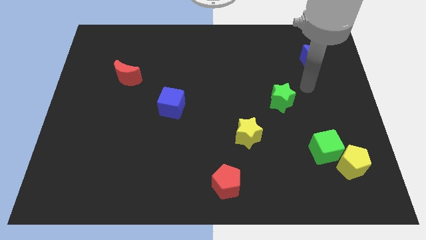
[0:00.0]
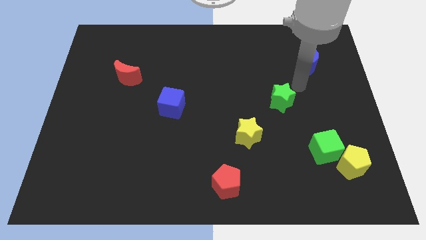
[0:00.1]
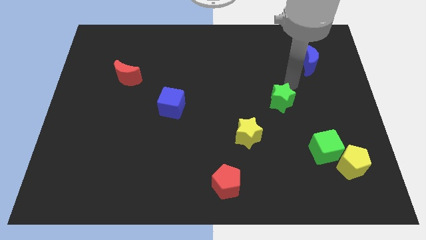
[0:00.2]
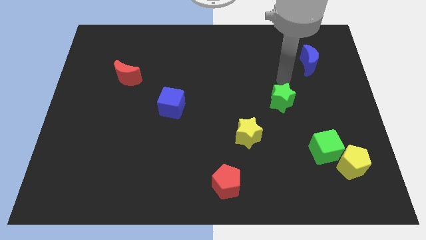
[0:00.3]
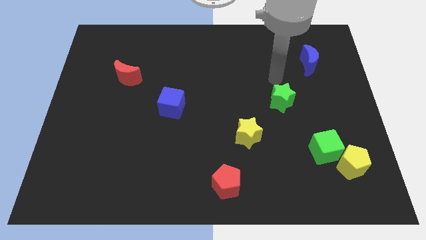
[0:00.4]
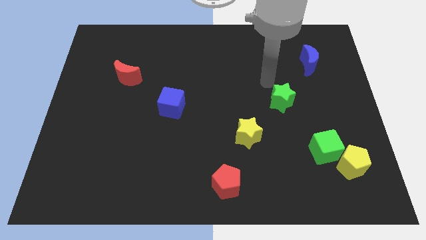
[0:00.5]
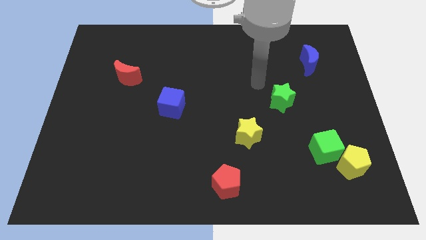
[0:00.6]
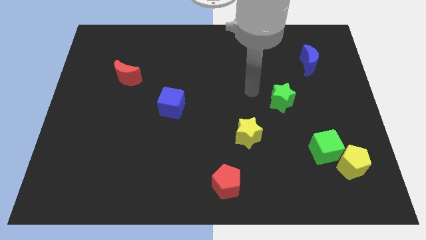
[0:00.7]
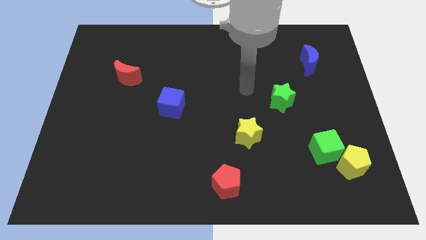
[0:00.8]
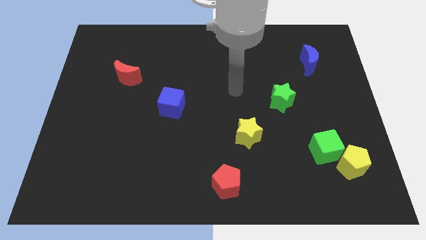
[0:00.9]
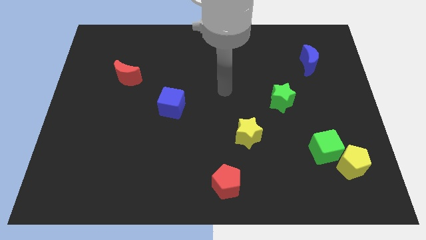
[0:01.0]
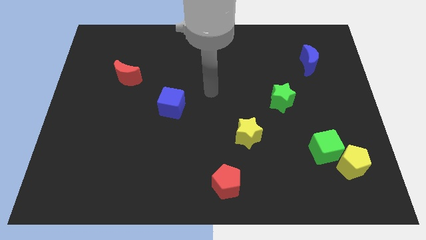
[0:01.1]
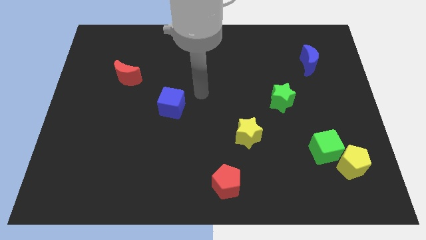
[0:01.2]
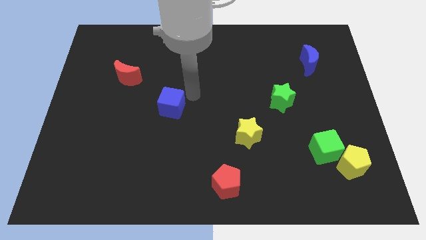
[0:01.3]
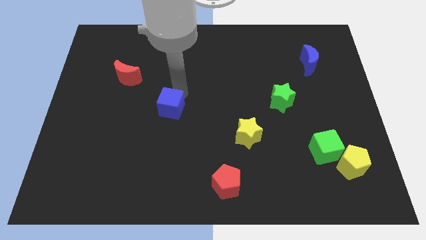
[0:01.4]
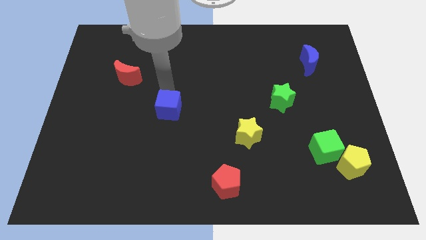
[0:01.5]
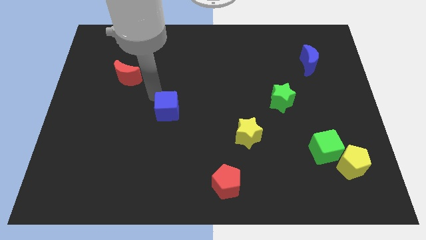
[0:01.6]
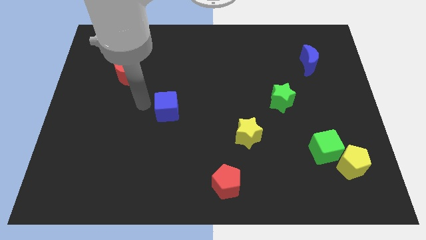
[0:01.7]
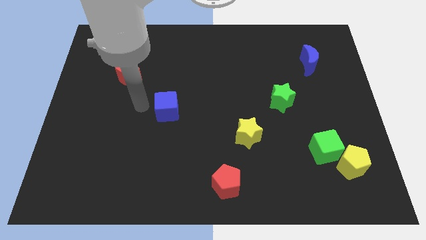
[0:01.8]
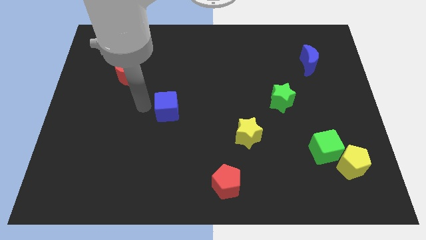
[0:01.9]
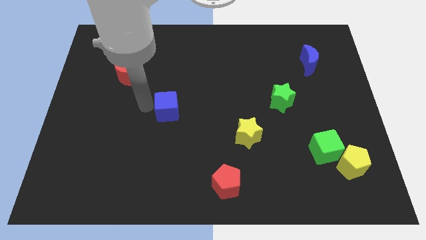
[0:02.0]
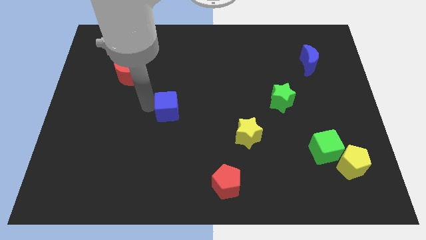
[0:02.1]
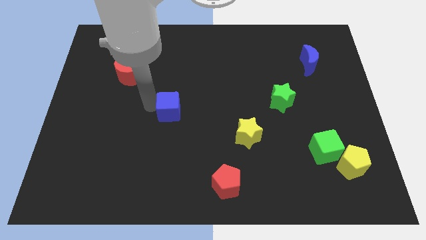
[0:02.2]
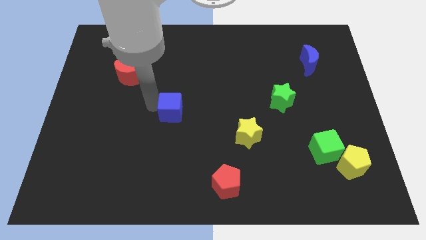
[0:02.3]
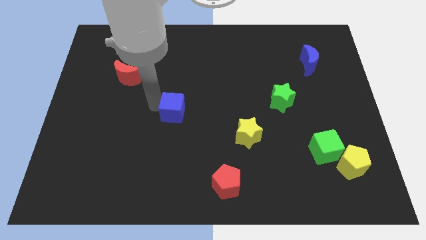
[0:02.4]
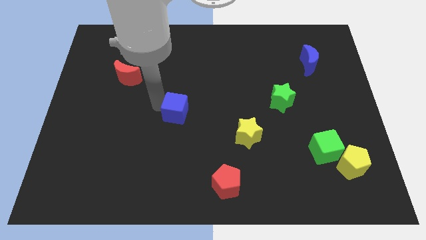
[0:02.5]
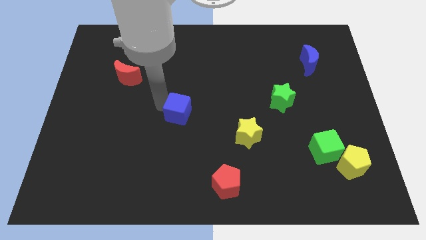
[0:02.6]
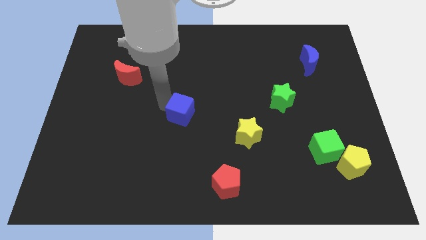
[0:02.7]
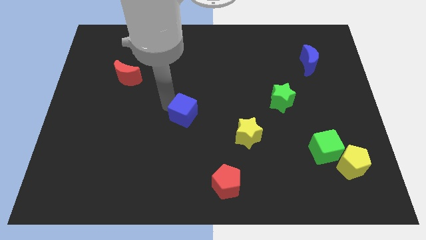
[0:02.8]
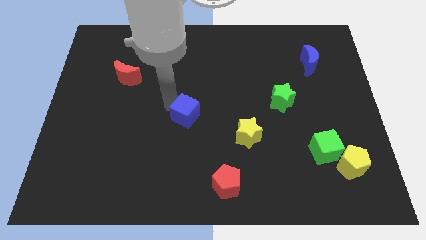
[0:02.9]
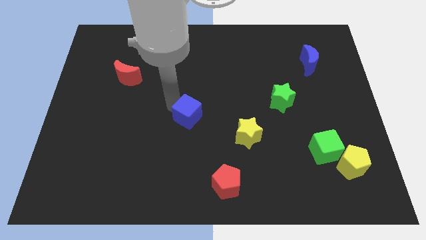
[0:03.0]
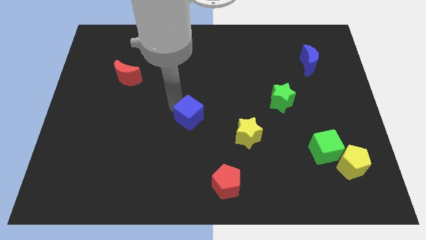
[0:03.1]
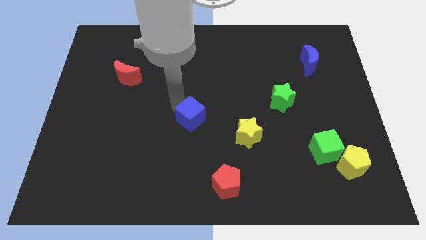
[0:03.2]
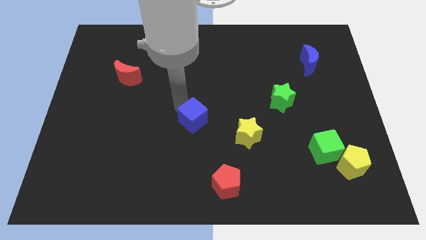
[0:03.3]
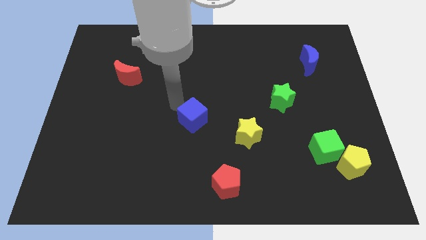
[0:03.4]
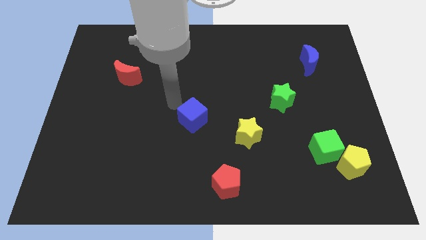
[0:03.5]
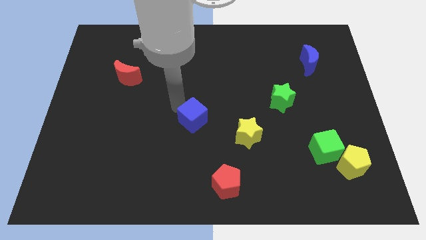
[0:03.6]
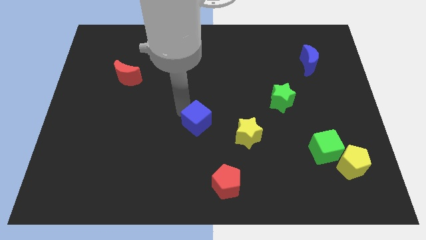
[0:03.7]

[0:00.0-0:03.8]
slightly push the blue cube diagonally down and to the right

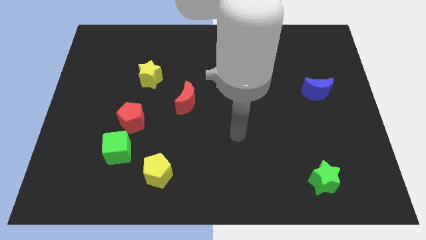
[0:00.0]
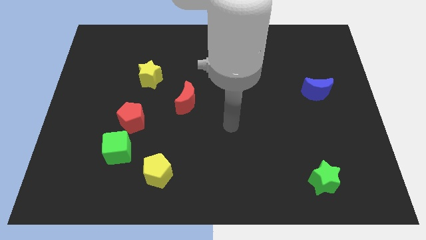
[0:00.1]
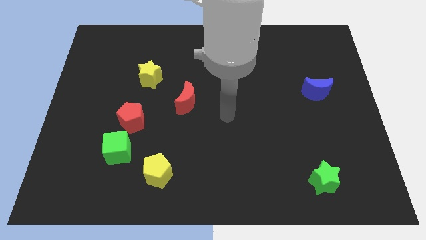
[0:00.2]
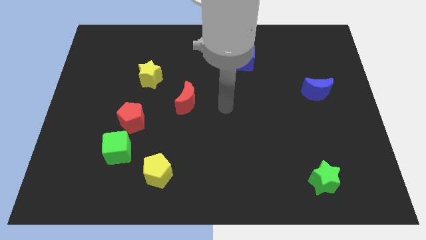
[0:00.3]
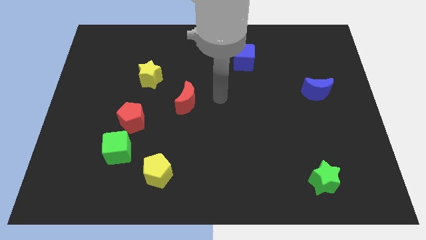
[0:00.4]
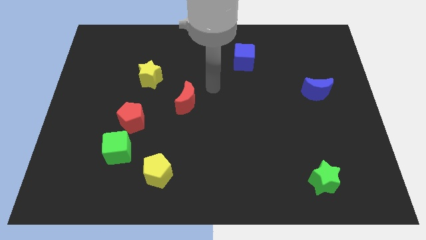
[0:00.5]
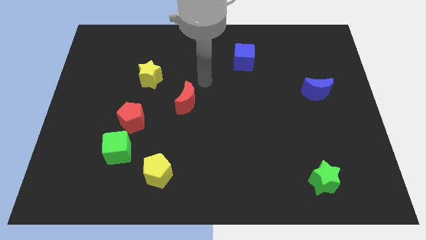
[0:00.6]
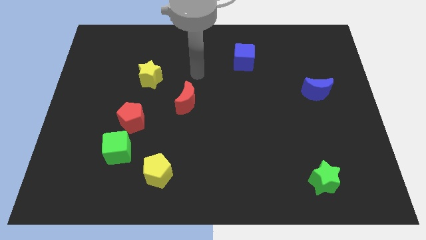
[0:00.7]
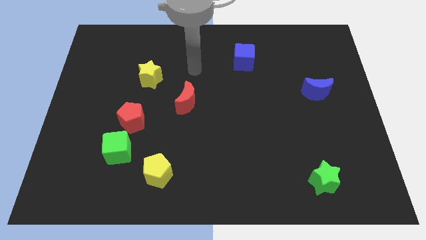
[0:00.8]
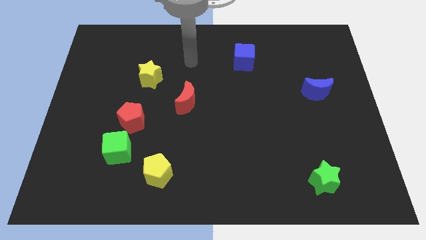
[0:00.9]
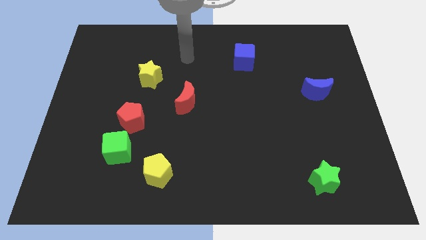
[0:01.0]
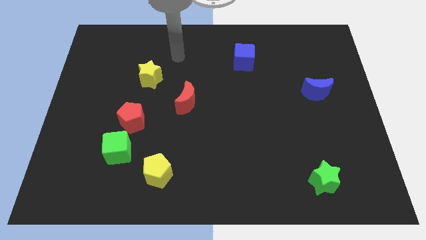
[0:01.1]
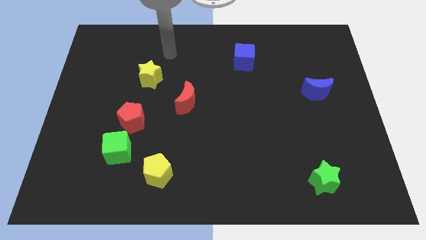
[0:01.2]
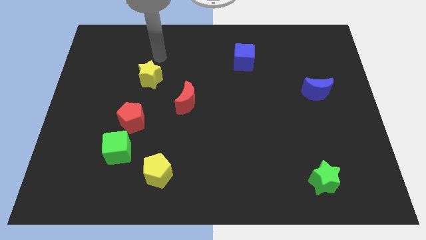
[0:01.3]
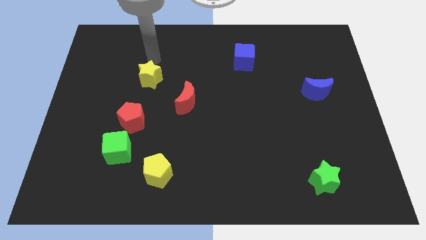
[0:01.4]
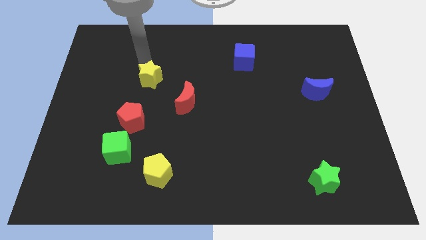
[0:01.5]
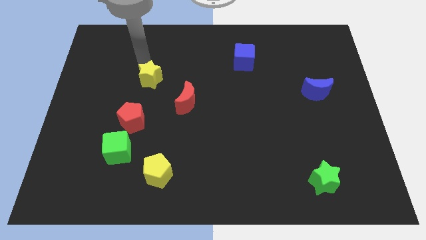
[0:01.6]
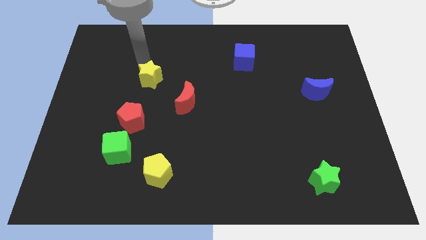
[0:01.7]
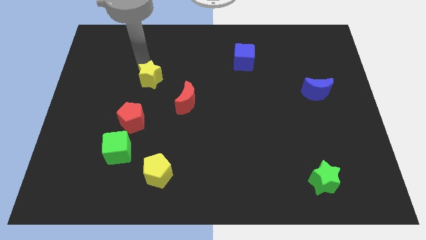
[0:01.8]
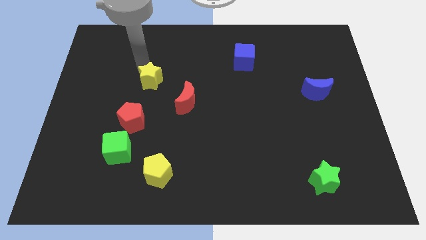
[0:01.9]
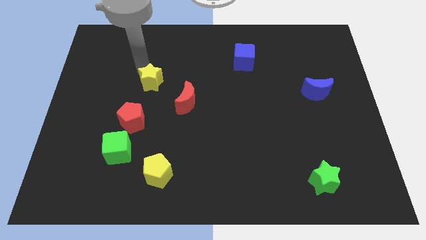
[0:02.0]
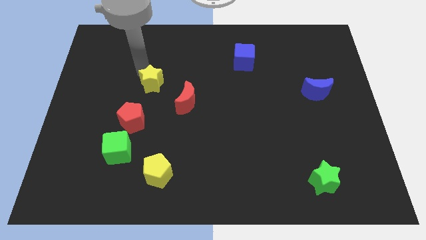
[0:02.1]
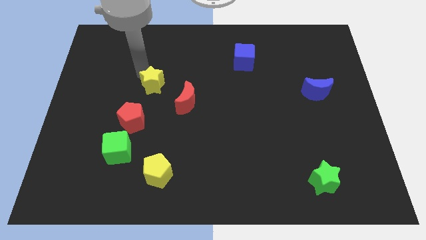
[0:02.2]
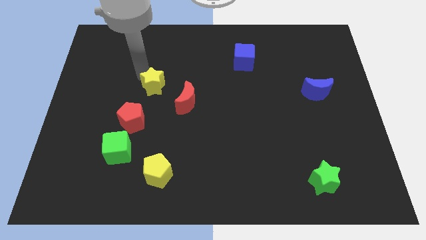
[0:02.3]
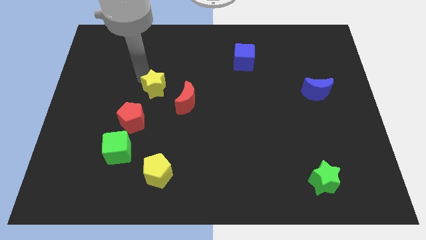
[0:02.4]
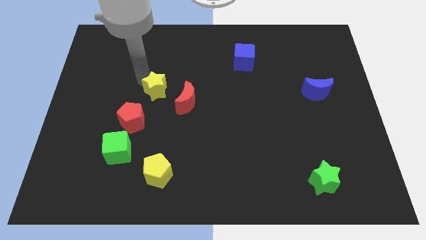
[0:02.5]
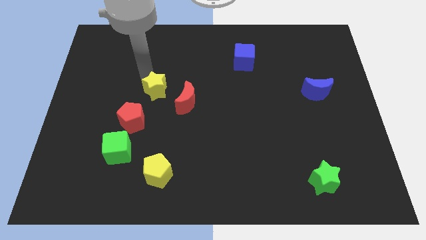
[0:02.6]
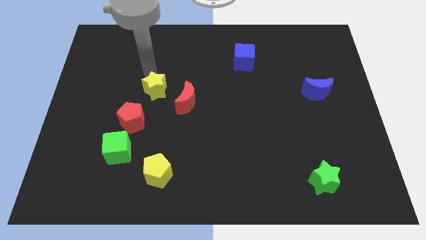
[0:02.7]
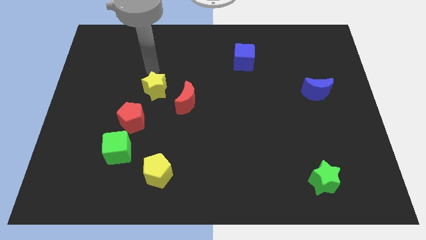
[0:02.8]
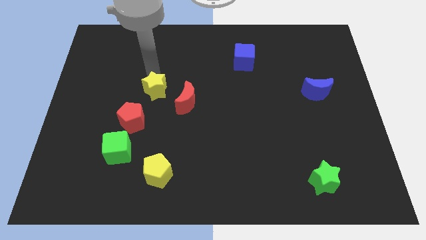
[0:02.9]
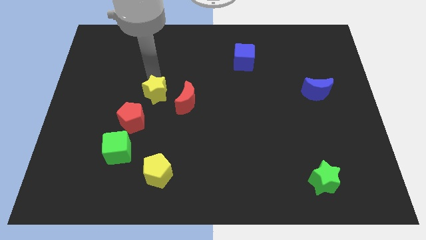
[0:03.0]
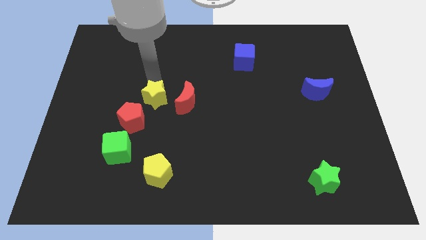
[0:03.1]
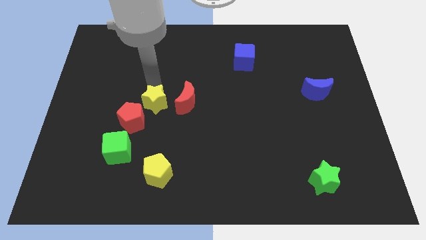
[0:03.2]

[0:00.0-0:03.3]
push the yellow star downwards a little bit

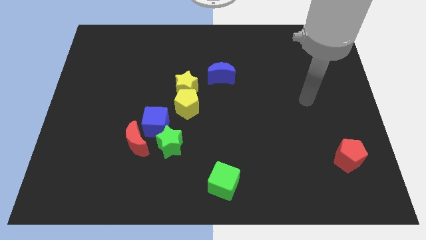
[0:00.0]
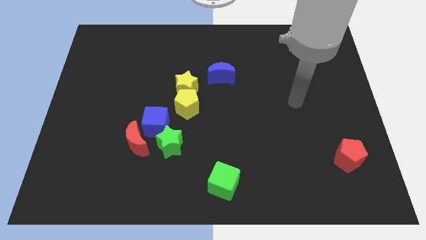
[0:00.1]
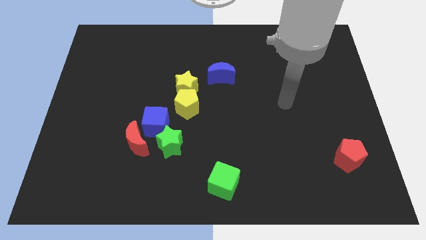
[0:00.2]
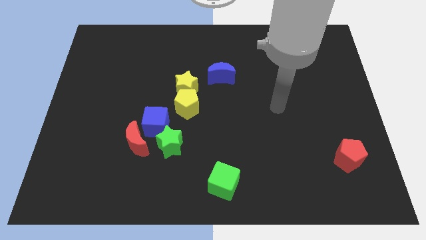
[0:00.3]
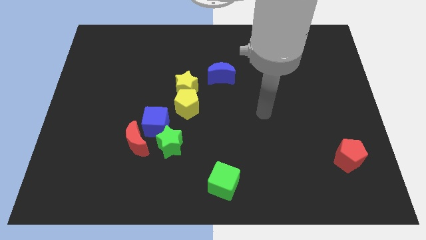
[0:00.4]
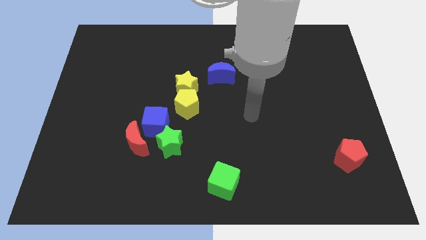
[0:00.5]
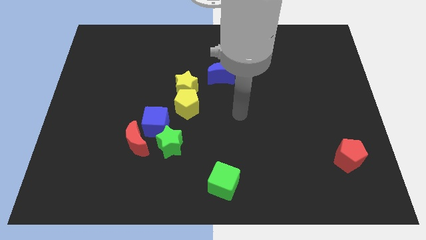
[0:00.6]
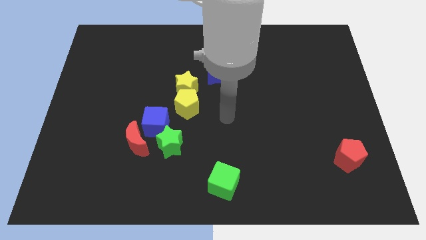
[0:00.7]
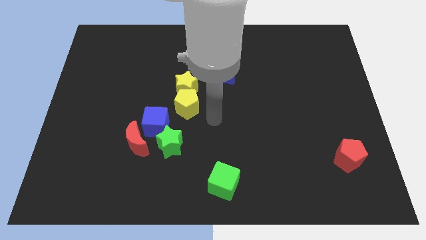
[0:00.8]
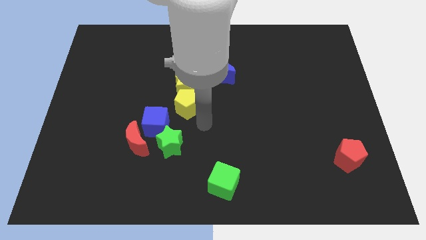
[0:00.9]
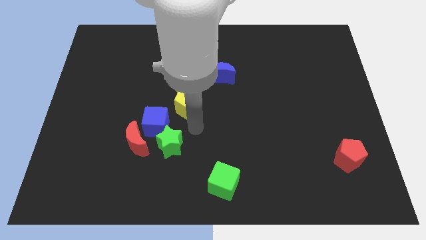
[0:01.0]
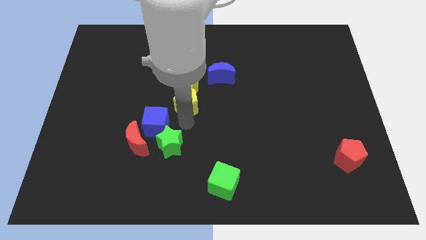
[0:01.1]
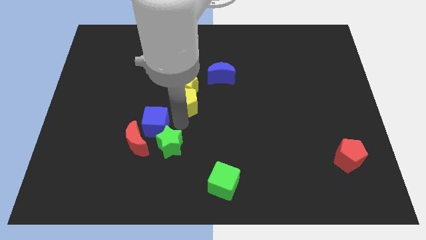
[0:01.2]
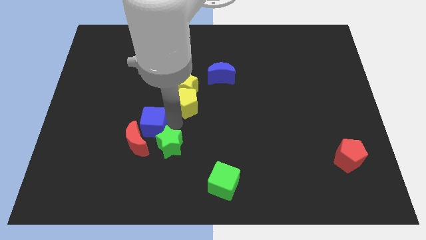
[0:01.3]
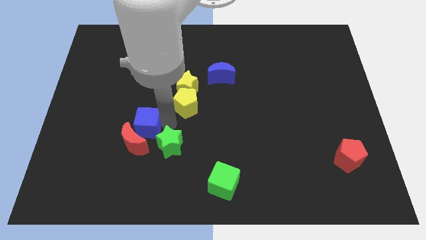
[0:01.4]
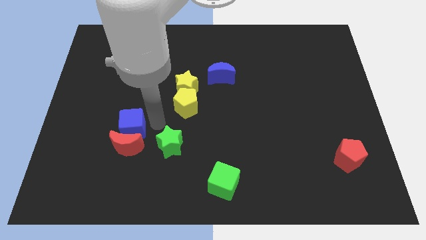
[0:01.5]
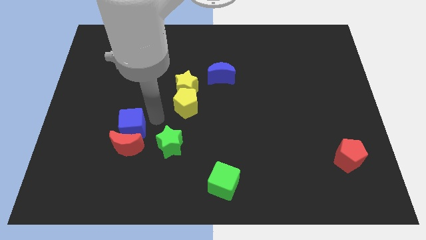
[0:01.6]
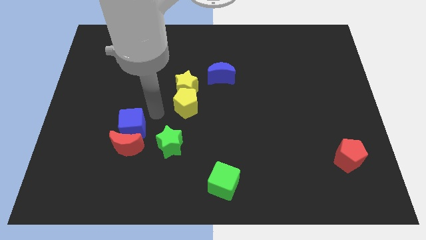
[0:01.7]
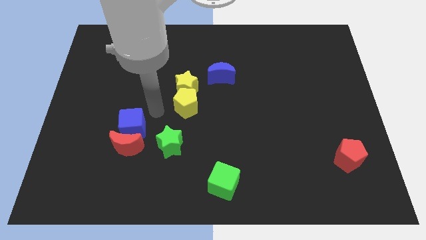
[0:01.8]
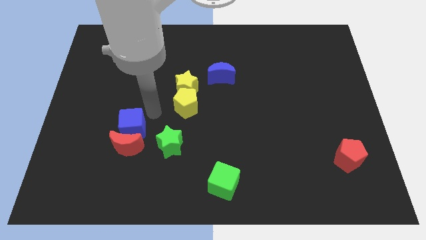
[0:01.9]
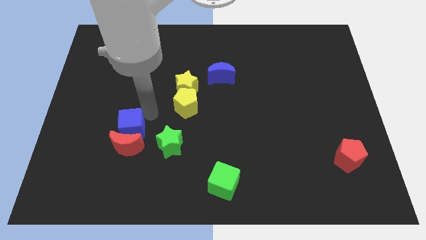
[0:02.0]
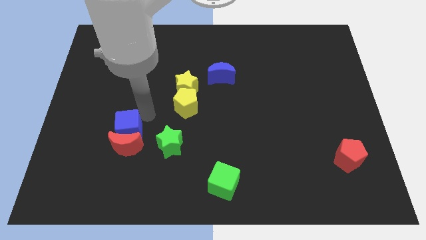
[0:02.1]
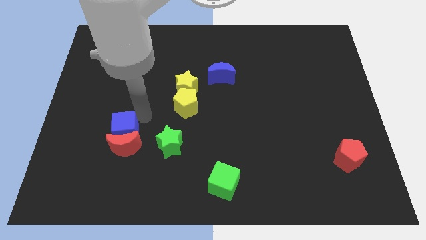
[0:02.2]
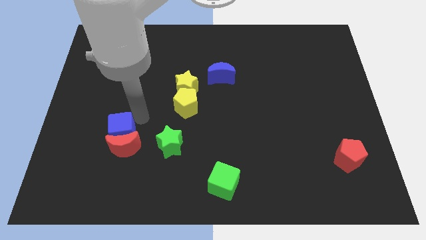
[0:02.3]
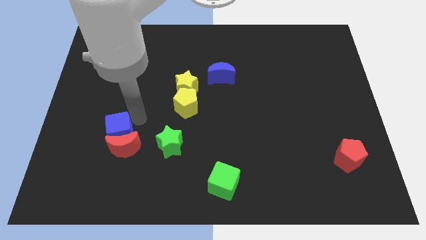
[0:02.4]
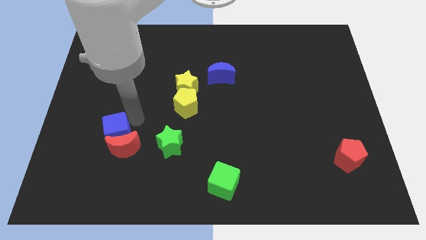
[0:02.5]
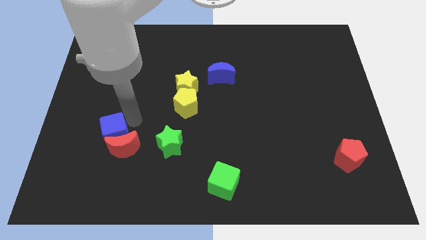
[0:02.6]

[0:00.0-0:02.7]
move the blue cube a little down and then to the left
